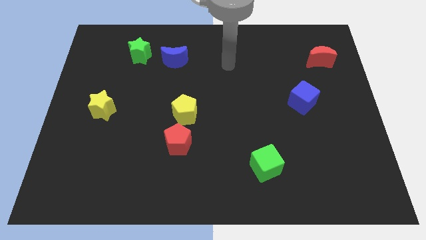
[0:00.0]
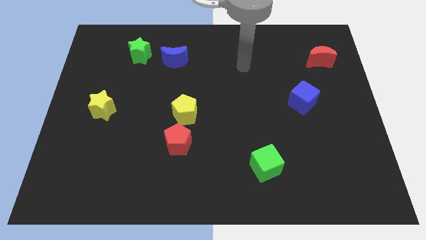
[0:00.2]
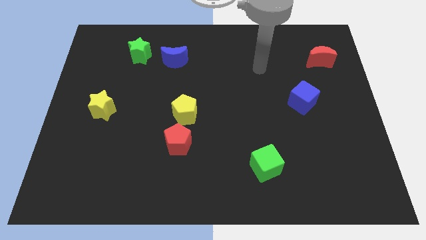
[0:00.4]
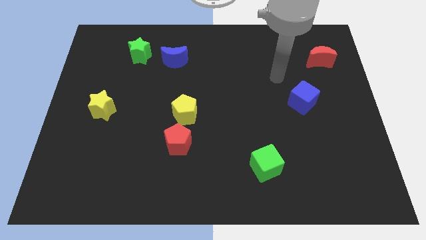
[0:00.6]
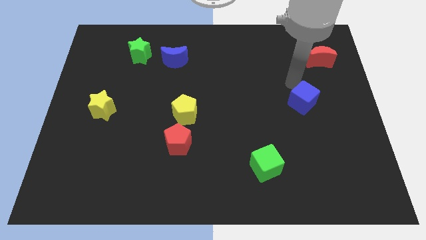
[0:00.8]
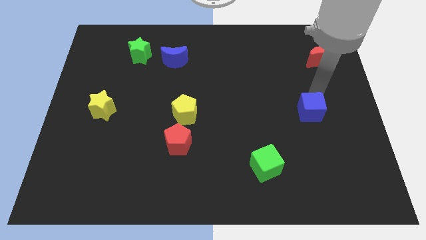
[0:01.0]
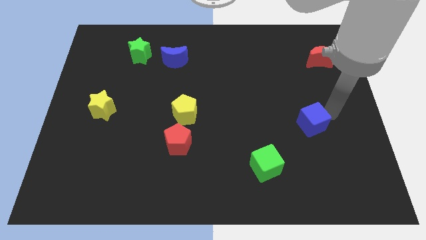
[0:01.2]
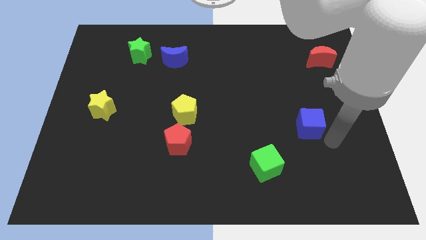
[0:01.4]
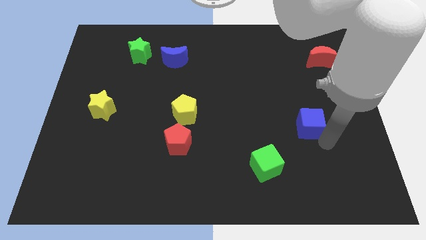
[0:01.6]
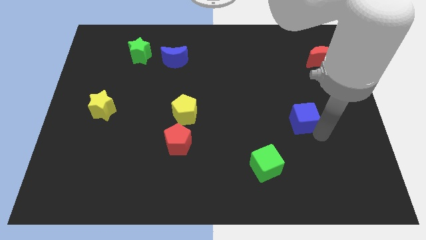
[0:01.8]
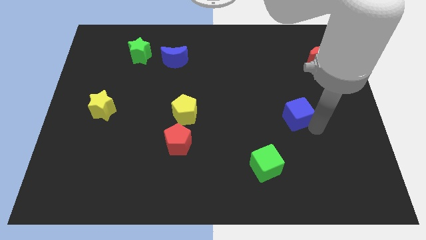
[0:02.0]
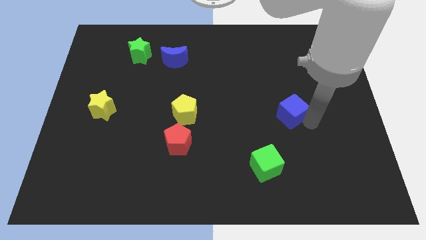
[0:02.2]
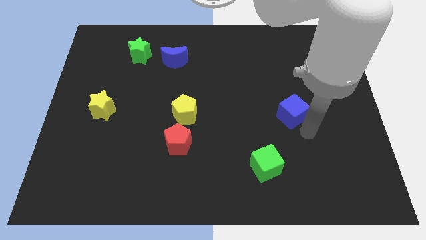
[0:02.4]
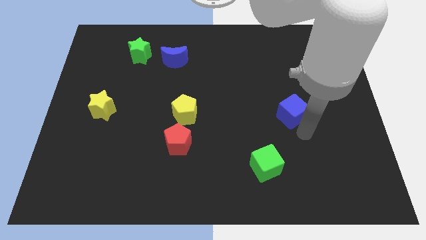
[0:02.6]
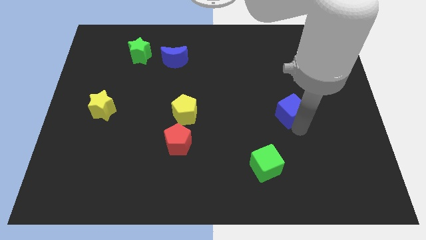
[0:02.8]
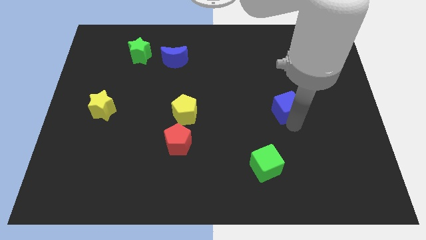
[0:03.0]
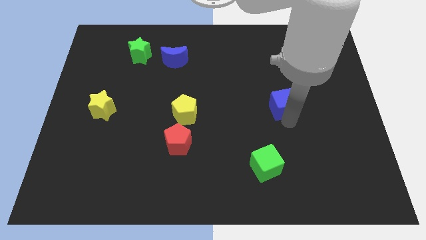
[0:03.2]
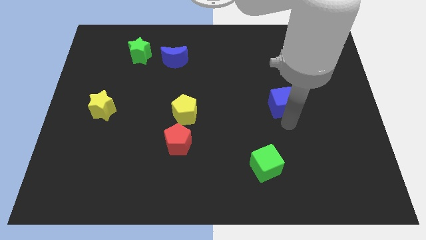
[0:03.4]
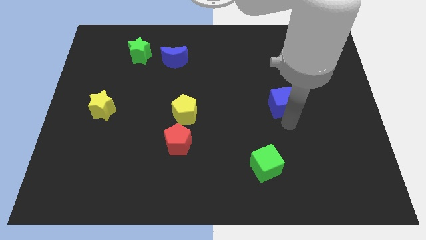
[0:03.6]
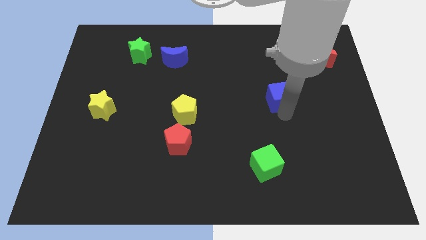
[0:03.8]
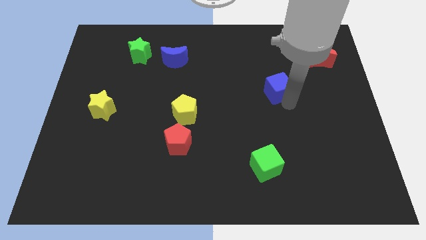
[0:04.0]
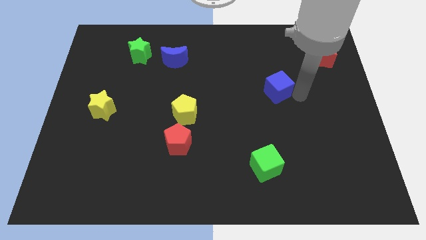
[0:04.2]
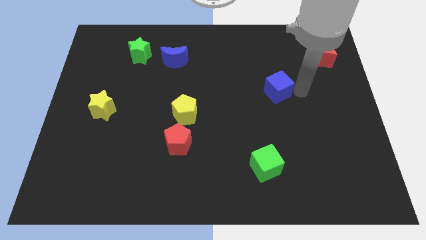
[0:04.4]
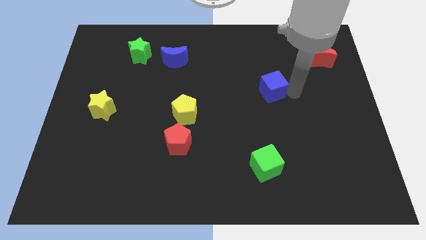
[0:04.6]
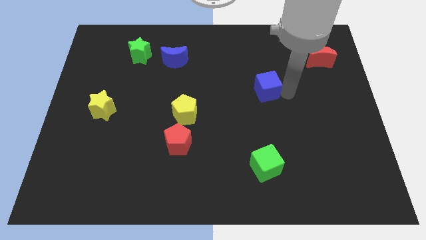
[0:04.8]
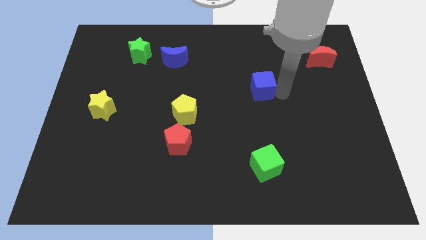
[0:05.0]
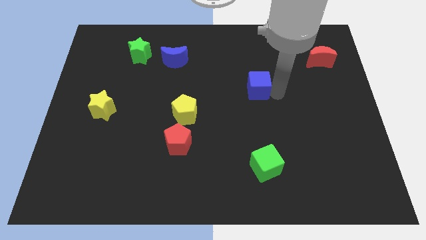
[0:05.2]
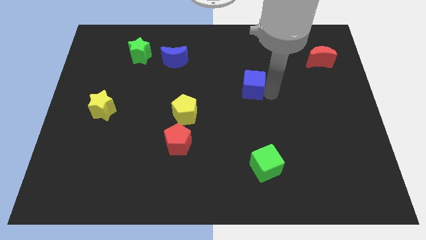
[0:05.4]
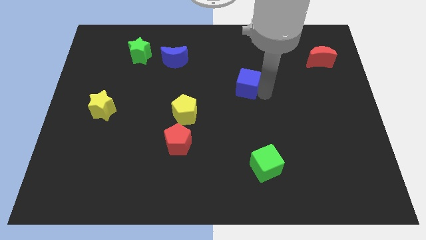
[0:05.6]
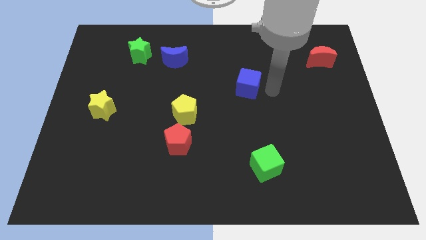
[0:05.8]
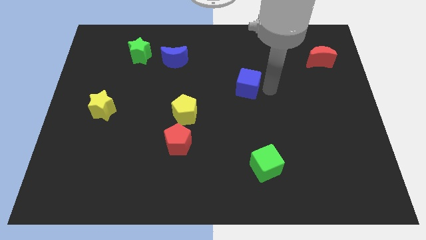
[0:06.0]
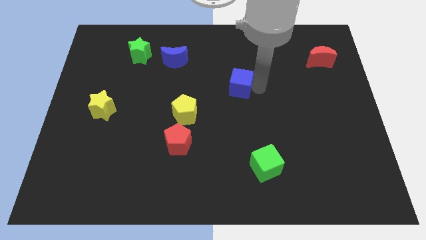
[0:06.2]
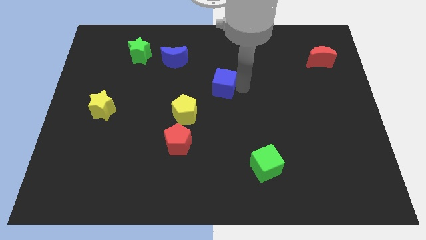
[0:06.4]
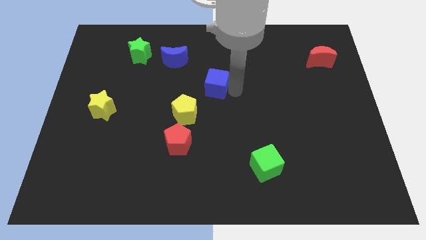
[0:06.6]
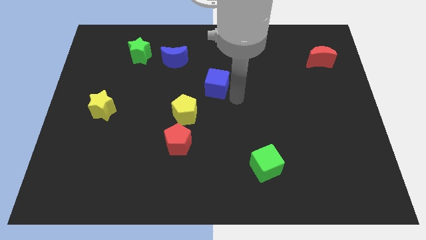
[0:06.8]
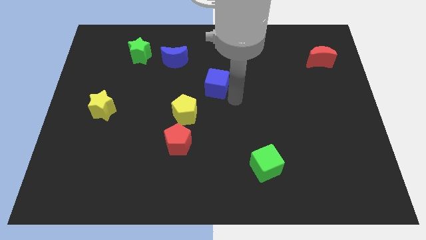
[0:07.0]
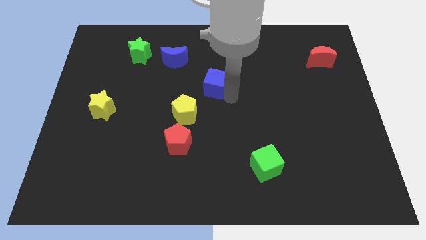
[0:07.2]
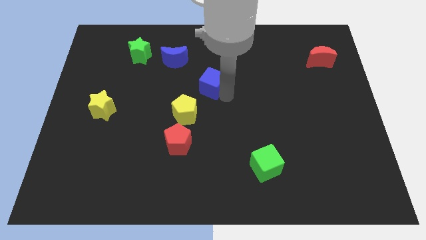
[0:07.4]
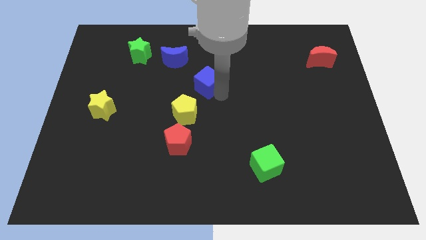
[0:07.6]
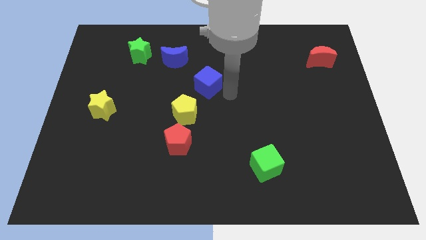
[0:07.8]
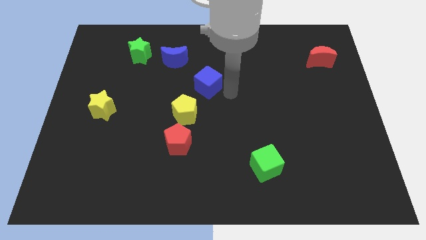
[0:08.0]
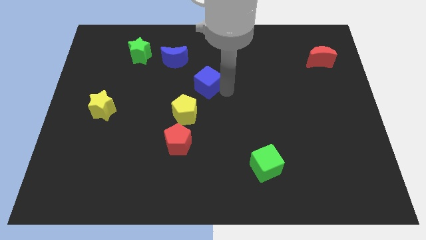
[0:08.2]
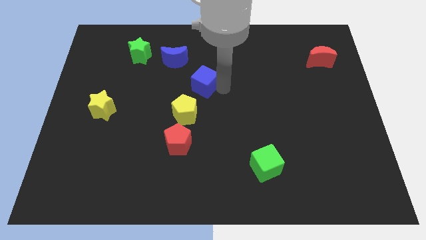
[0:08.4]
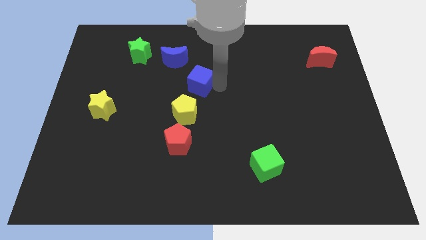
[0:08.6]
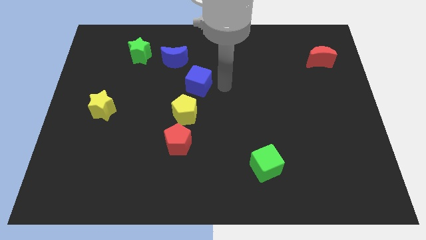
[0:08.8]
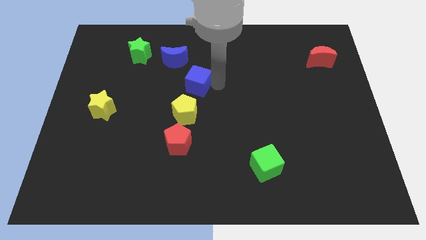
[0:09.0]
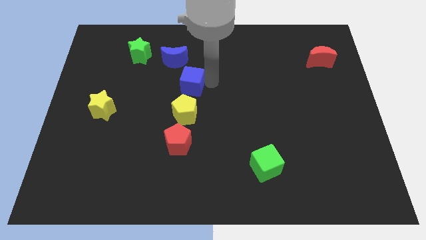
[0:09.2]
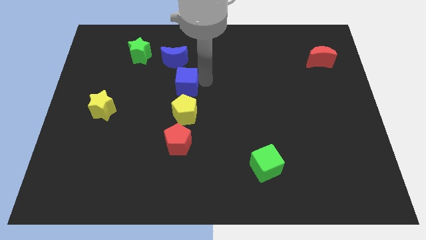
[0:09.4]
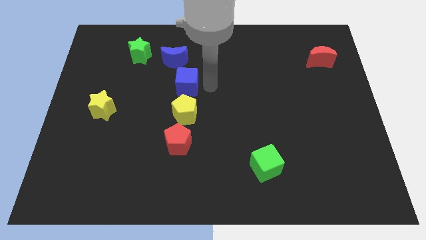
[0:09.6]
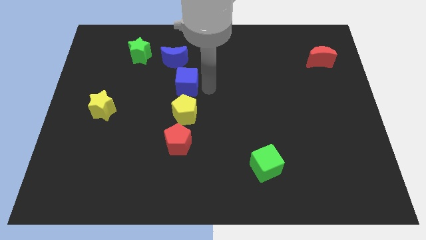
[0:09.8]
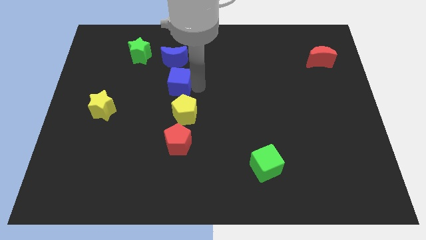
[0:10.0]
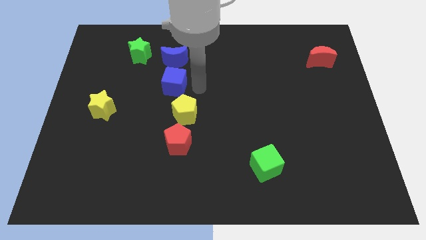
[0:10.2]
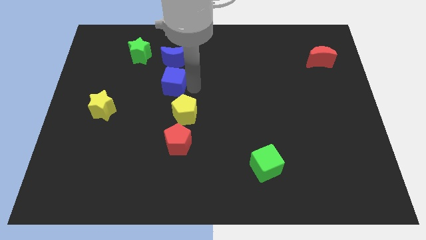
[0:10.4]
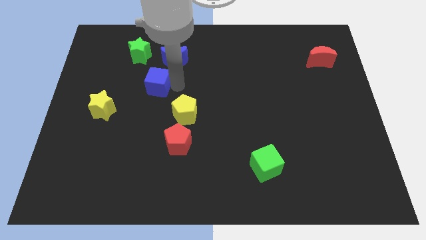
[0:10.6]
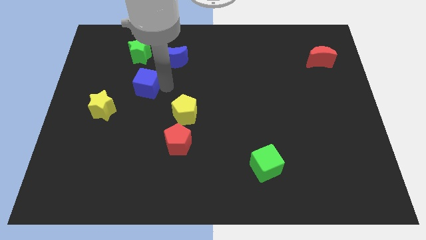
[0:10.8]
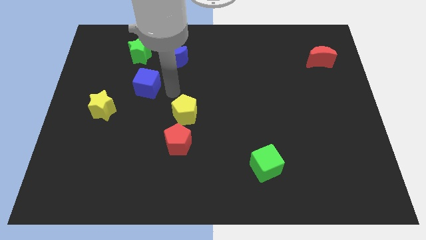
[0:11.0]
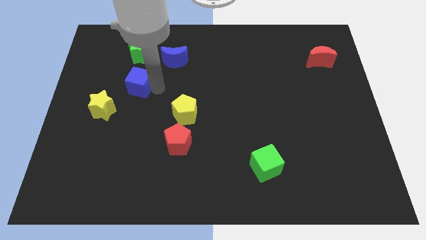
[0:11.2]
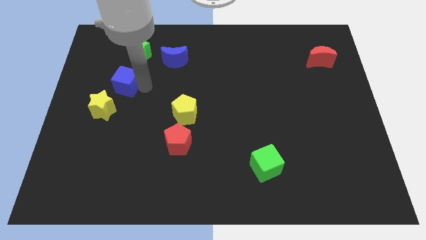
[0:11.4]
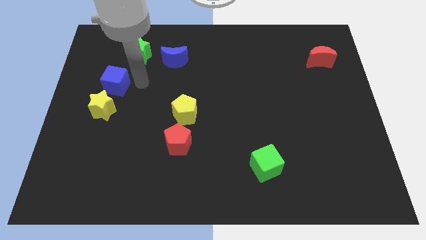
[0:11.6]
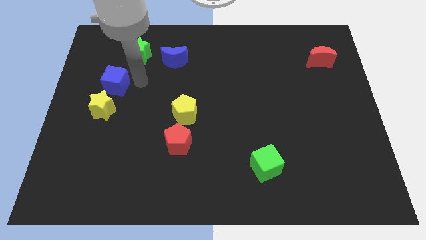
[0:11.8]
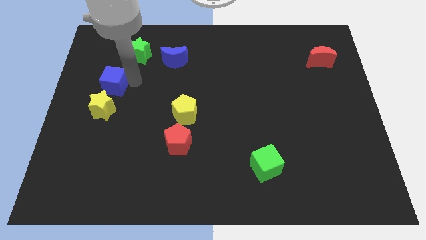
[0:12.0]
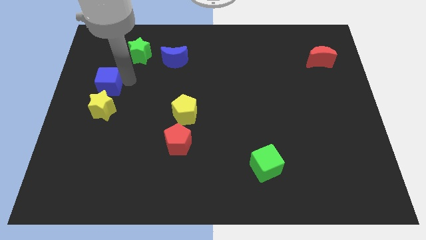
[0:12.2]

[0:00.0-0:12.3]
put the blue cube to the left side of the board

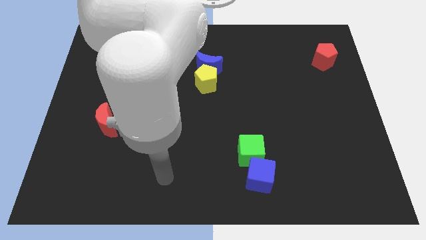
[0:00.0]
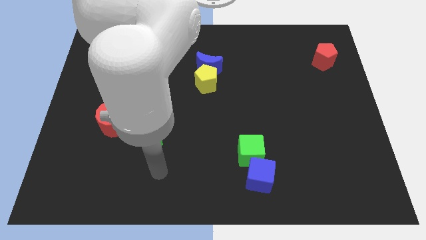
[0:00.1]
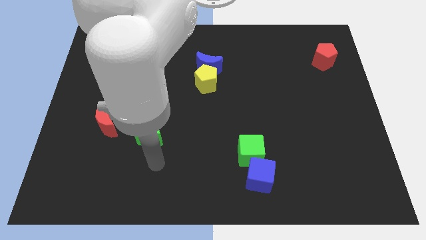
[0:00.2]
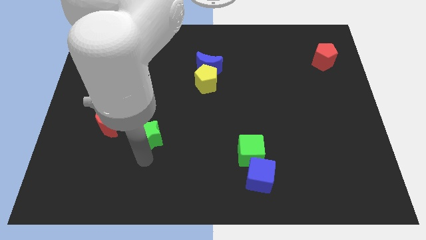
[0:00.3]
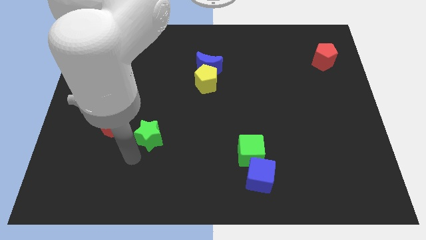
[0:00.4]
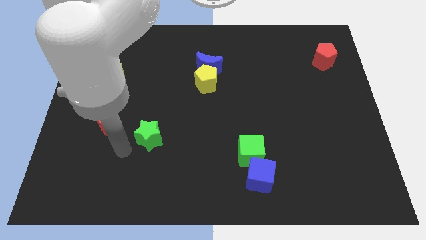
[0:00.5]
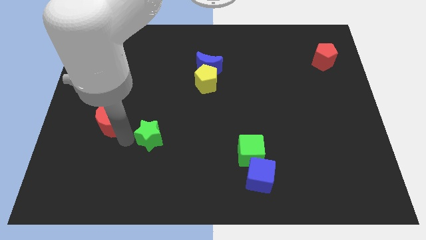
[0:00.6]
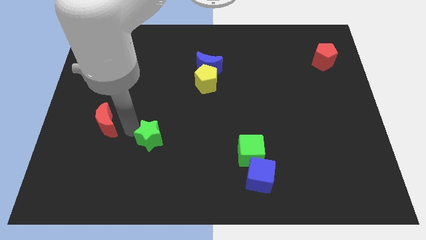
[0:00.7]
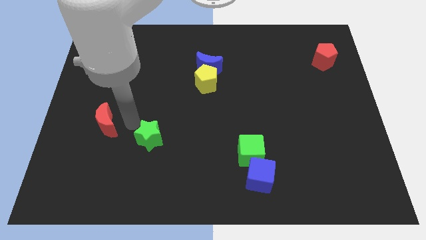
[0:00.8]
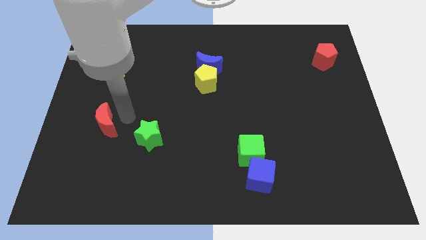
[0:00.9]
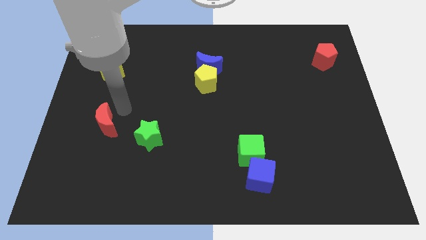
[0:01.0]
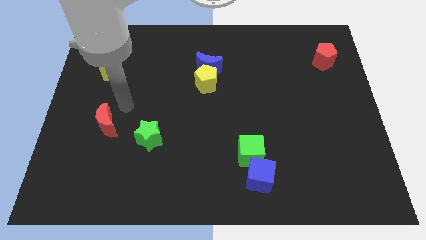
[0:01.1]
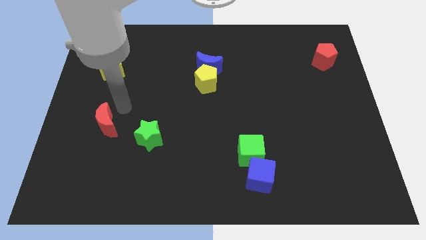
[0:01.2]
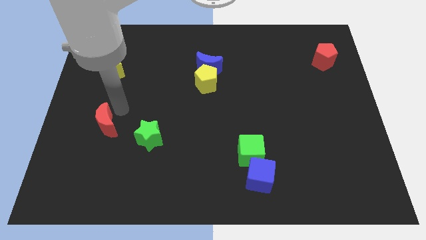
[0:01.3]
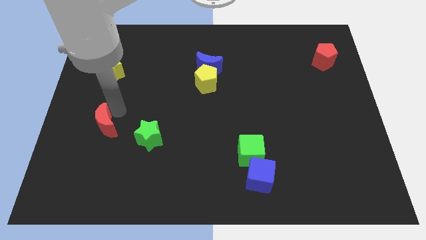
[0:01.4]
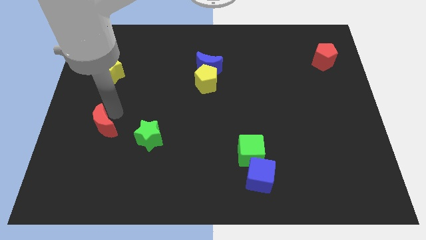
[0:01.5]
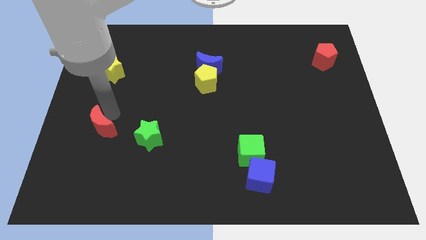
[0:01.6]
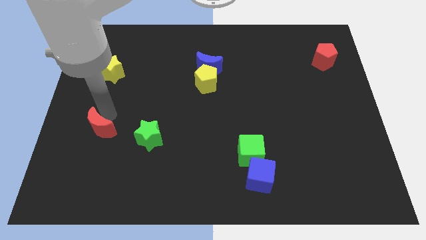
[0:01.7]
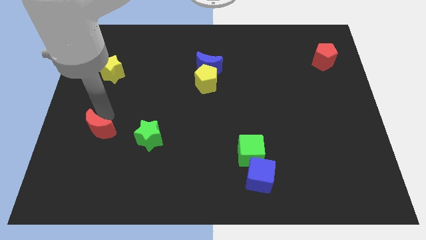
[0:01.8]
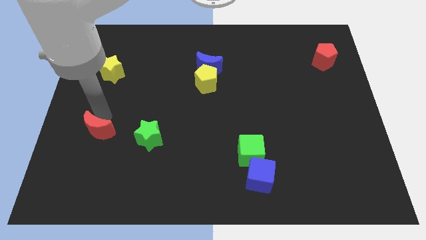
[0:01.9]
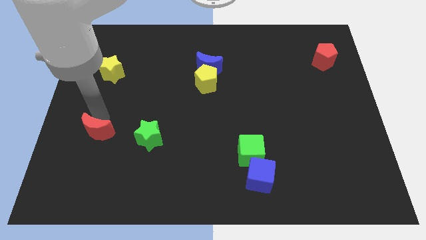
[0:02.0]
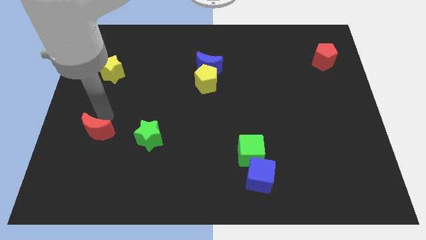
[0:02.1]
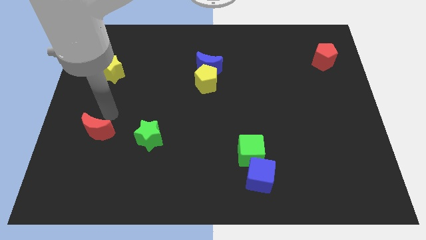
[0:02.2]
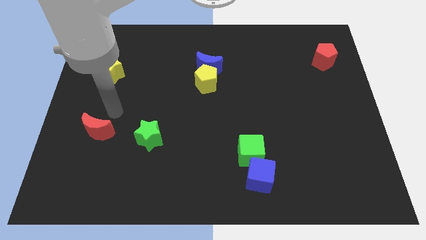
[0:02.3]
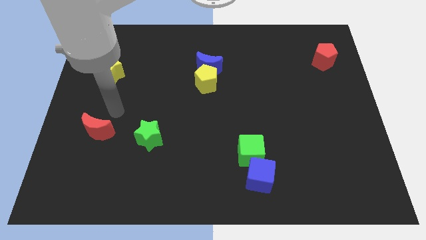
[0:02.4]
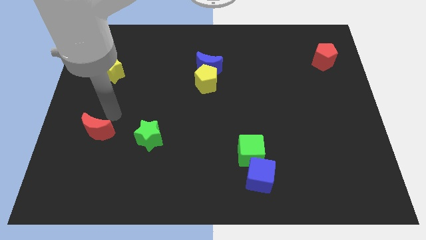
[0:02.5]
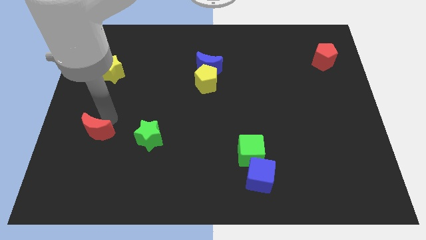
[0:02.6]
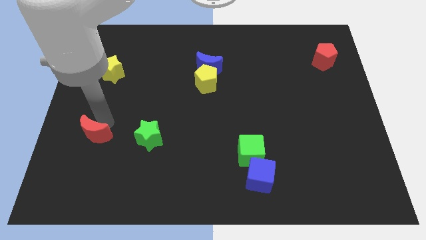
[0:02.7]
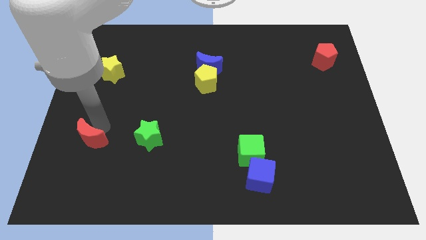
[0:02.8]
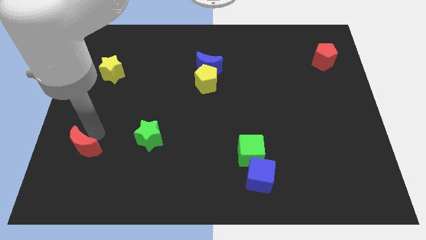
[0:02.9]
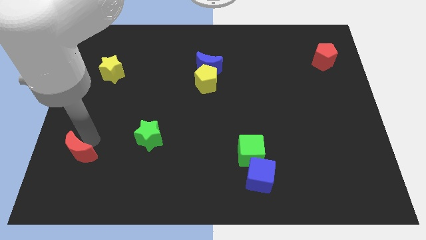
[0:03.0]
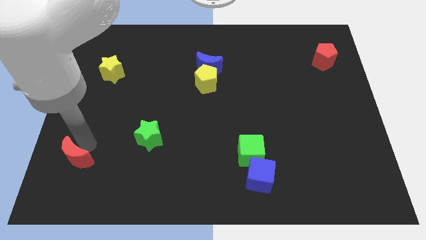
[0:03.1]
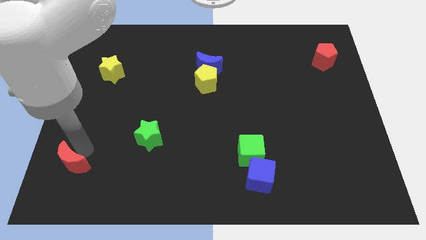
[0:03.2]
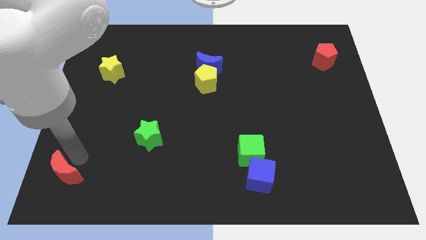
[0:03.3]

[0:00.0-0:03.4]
push the red moon to the bottom left corner
